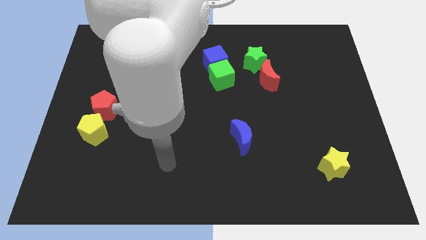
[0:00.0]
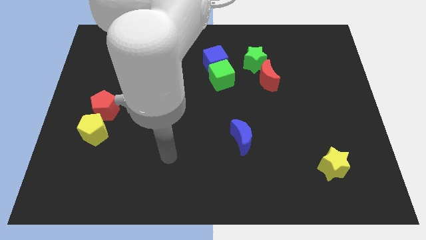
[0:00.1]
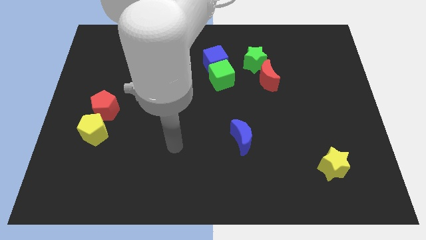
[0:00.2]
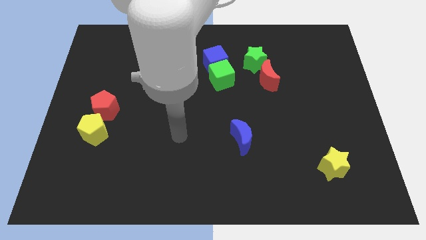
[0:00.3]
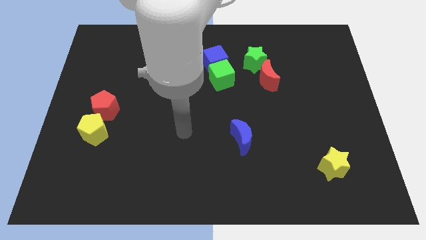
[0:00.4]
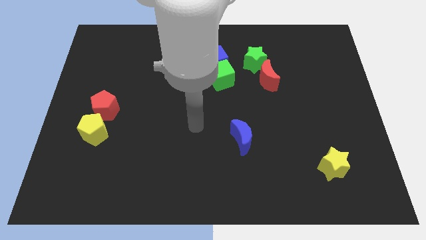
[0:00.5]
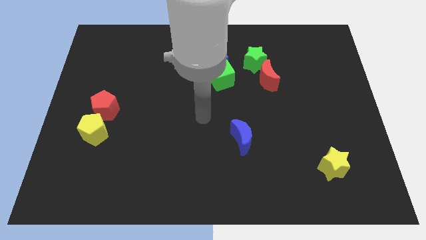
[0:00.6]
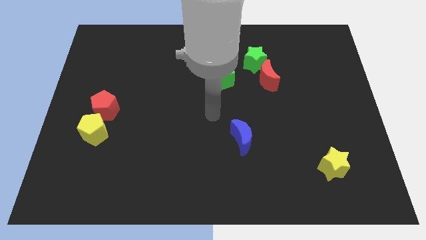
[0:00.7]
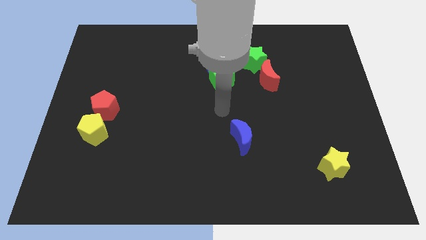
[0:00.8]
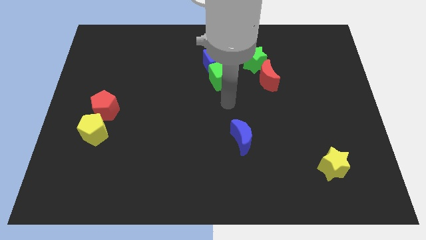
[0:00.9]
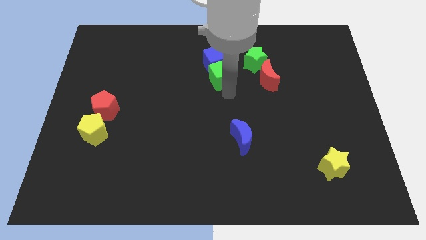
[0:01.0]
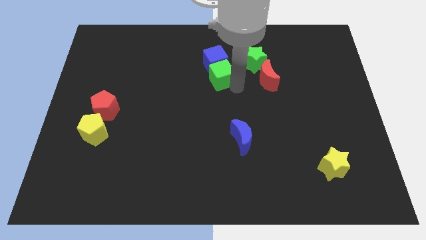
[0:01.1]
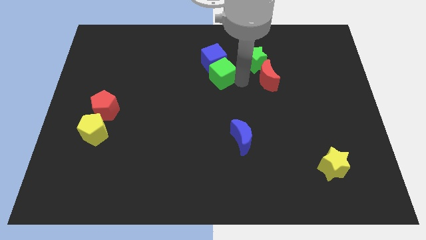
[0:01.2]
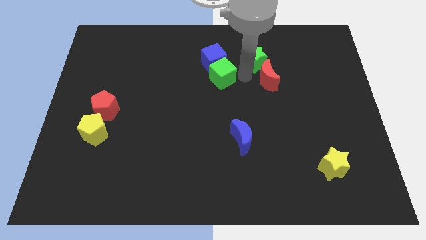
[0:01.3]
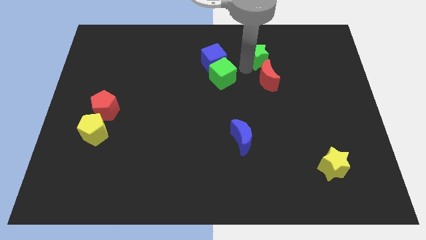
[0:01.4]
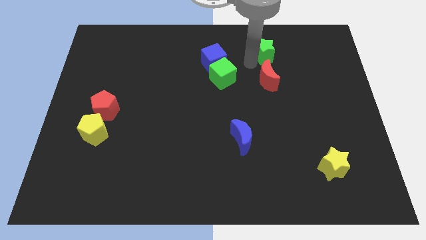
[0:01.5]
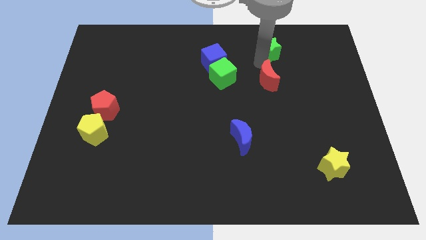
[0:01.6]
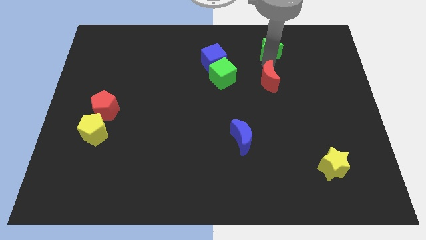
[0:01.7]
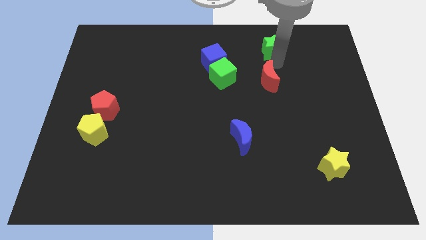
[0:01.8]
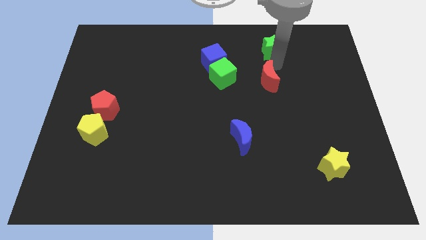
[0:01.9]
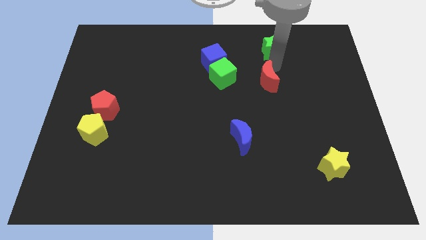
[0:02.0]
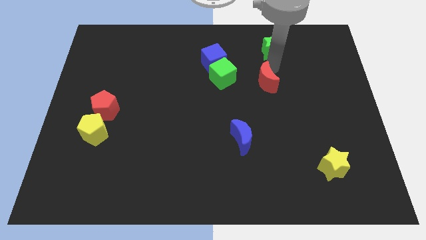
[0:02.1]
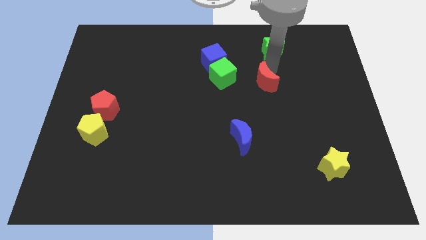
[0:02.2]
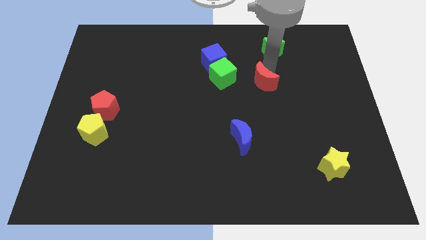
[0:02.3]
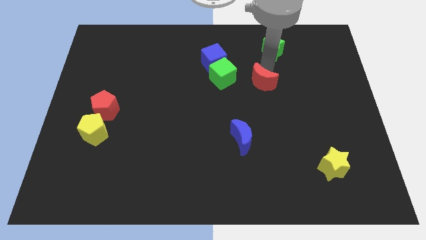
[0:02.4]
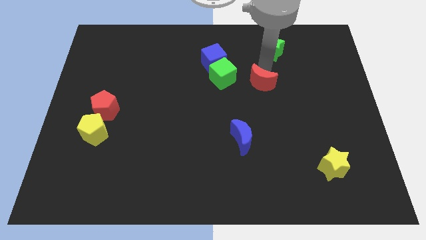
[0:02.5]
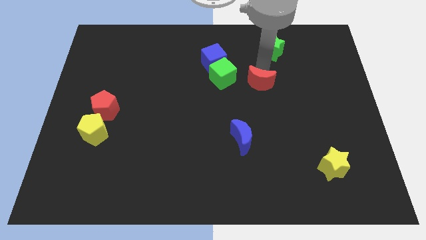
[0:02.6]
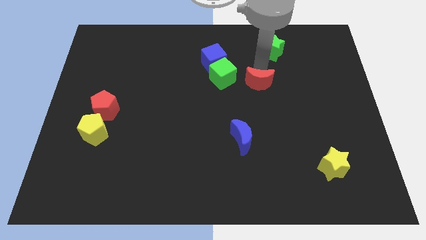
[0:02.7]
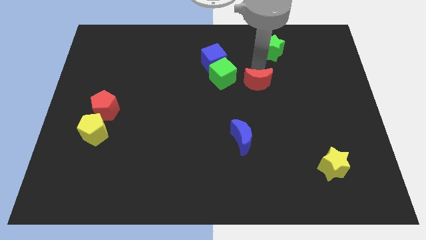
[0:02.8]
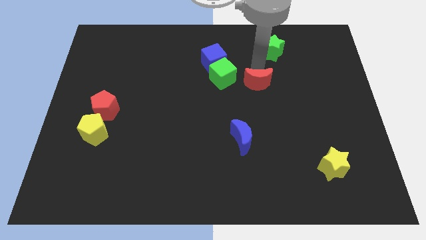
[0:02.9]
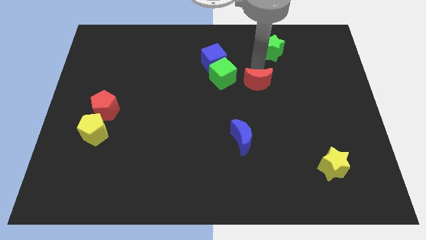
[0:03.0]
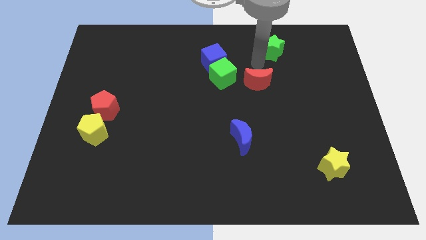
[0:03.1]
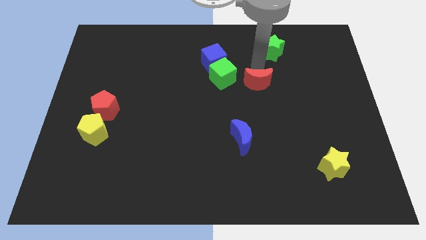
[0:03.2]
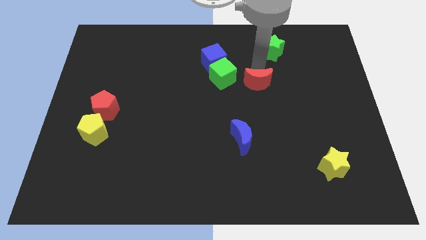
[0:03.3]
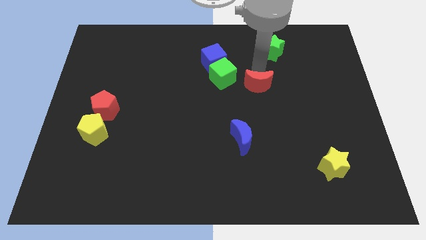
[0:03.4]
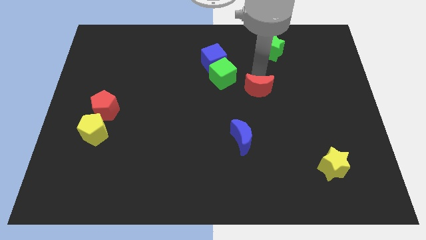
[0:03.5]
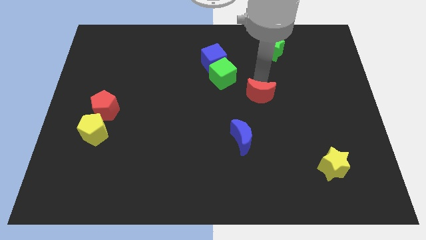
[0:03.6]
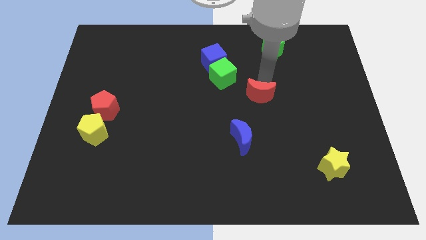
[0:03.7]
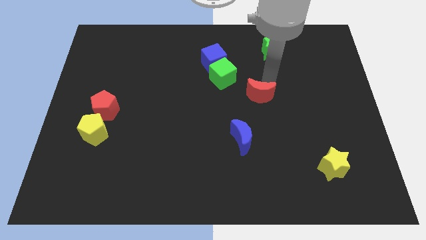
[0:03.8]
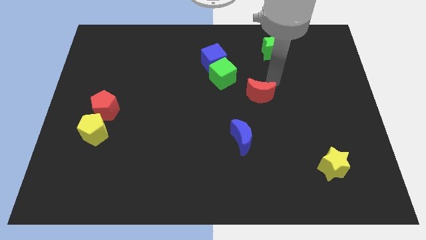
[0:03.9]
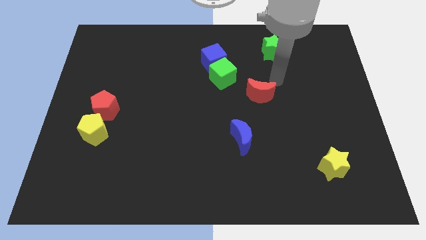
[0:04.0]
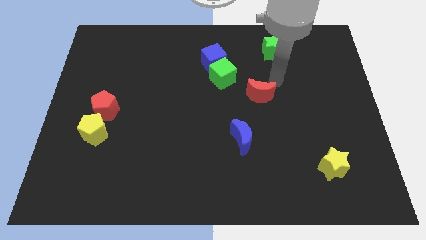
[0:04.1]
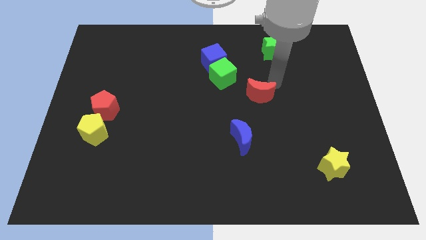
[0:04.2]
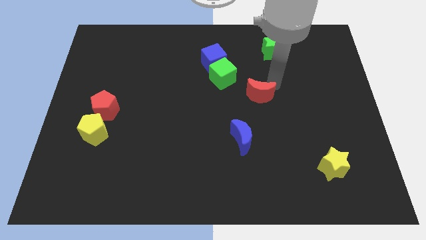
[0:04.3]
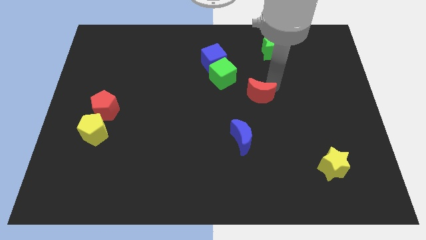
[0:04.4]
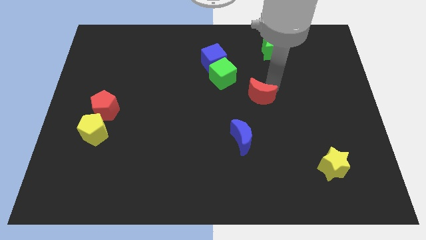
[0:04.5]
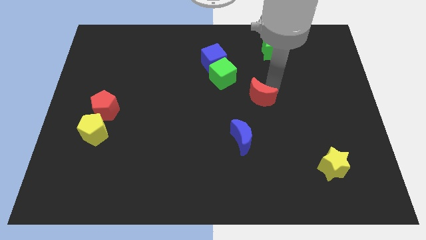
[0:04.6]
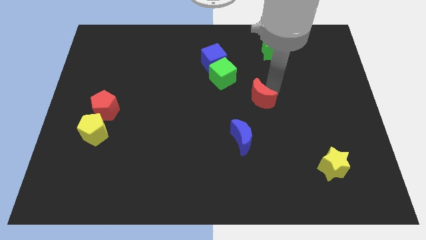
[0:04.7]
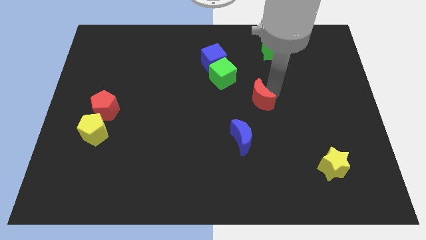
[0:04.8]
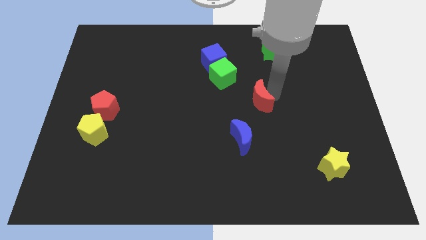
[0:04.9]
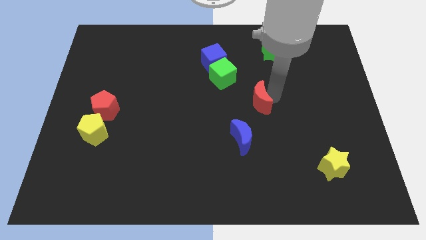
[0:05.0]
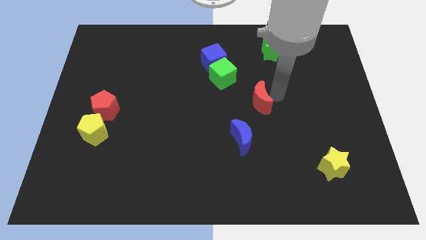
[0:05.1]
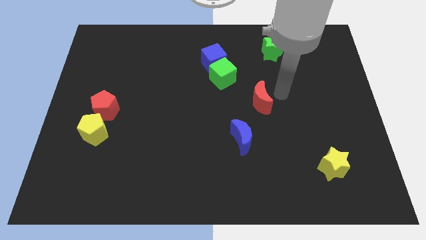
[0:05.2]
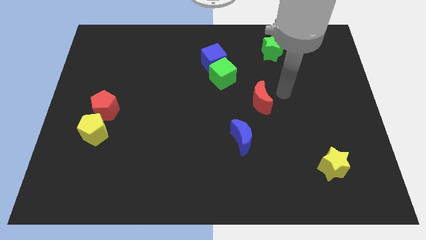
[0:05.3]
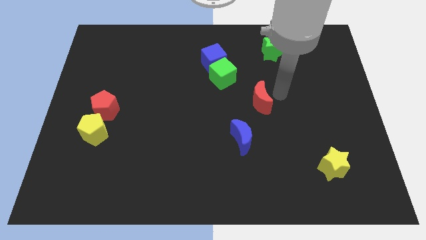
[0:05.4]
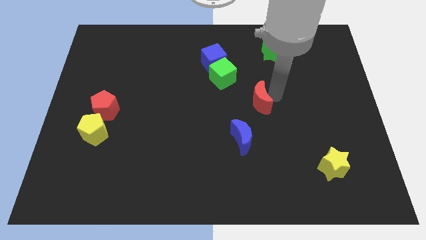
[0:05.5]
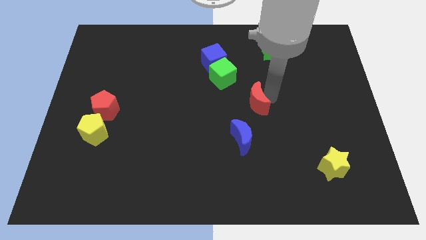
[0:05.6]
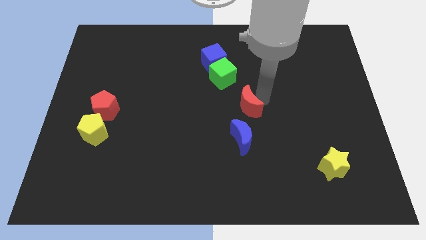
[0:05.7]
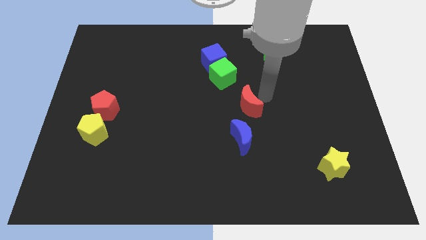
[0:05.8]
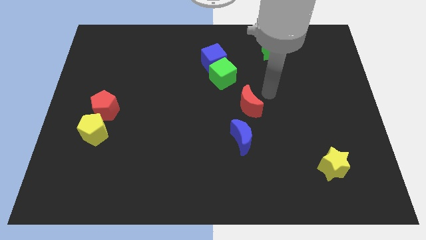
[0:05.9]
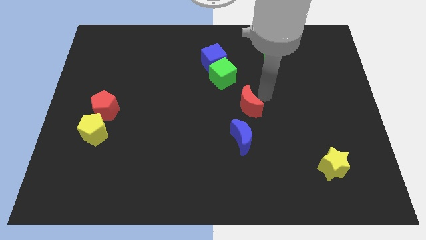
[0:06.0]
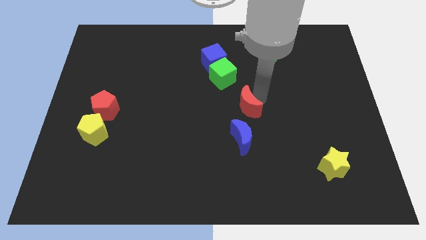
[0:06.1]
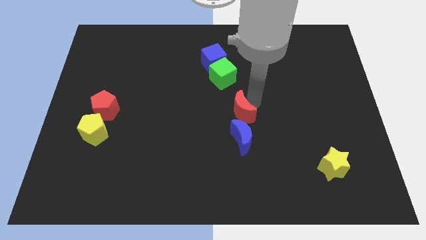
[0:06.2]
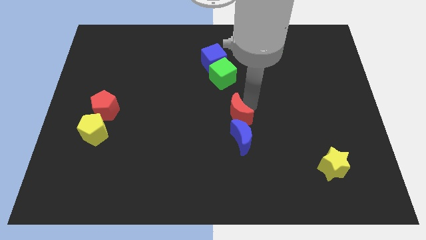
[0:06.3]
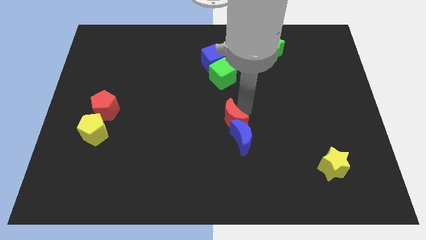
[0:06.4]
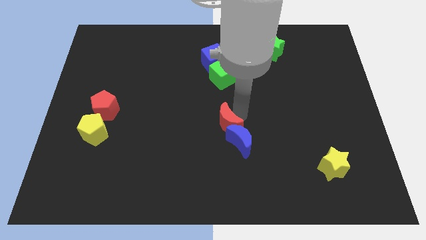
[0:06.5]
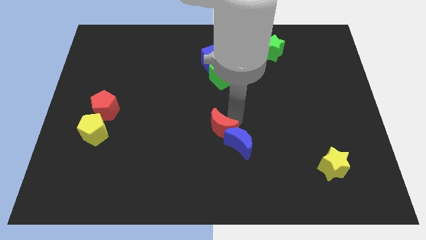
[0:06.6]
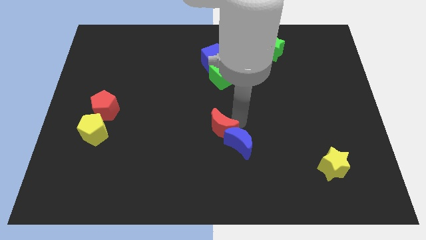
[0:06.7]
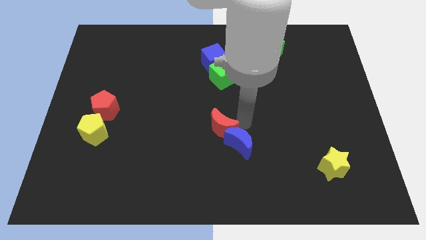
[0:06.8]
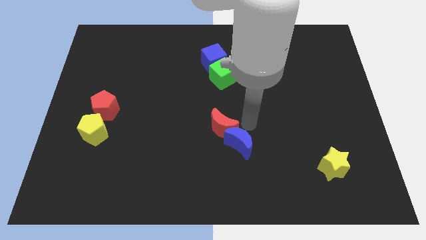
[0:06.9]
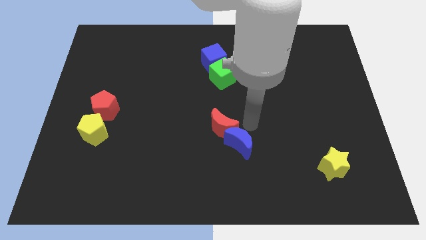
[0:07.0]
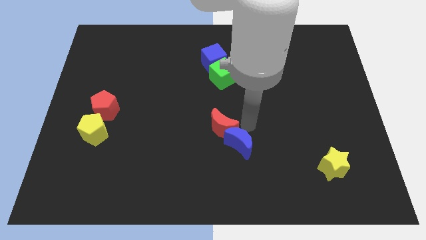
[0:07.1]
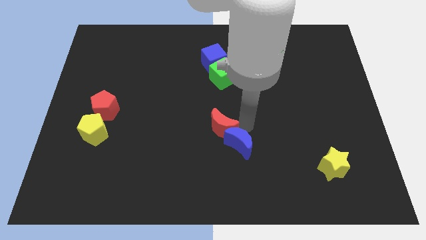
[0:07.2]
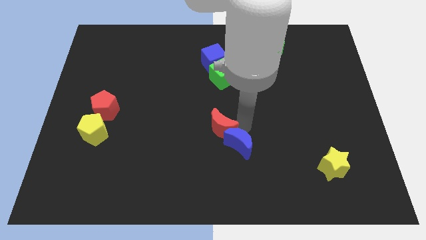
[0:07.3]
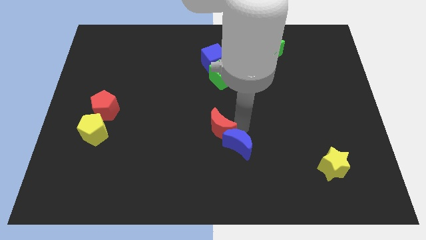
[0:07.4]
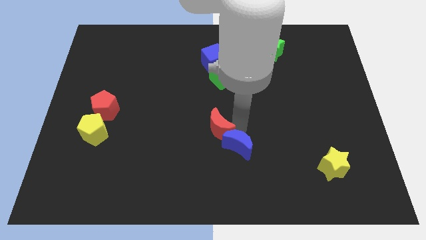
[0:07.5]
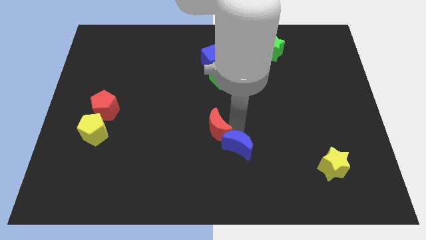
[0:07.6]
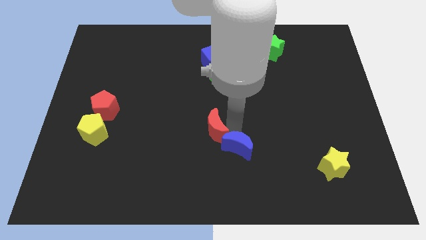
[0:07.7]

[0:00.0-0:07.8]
move the red moon downwards and then to the left

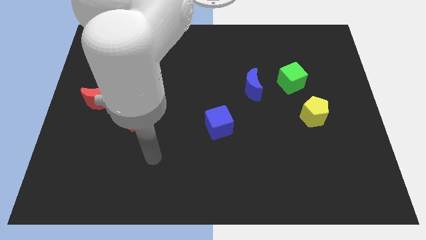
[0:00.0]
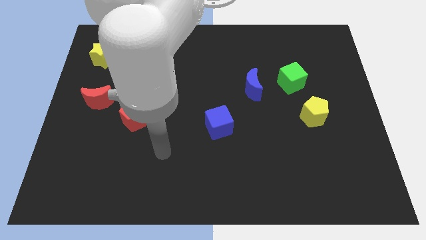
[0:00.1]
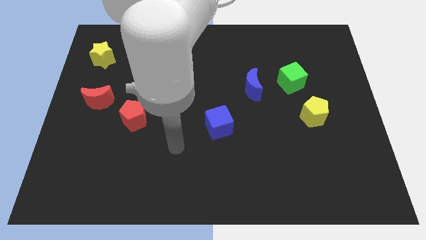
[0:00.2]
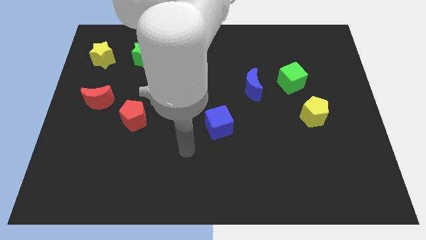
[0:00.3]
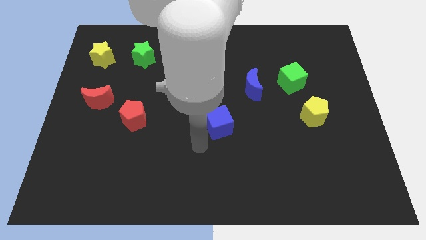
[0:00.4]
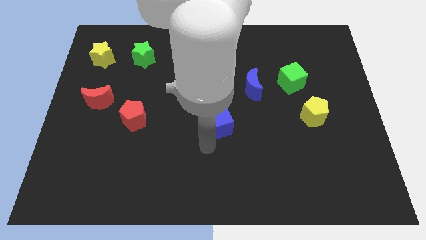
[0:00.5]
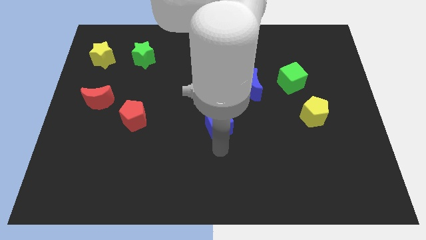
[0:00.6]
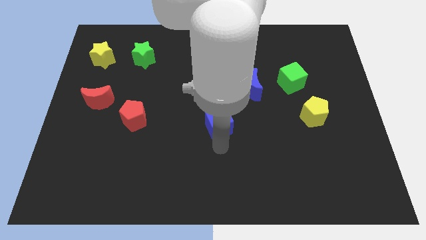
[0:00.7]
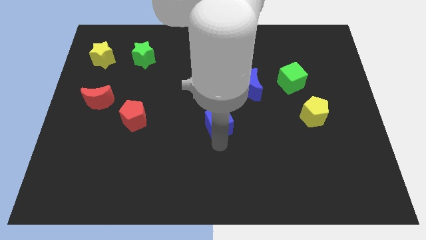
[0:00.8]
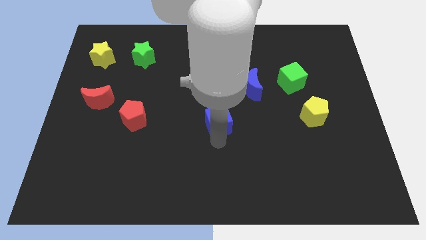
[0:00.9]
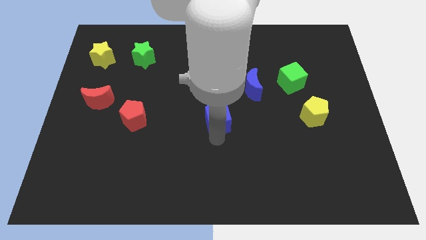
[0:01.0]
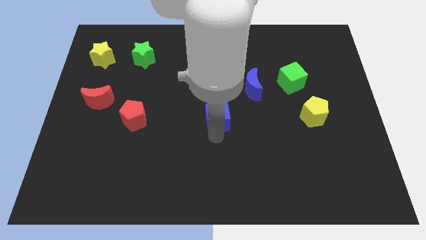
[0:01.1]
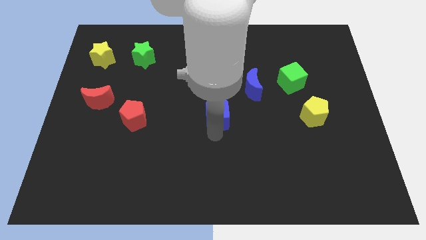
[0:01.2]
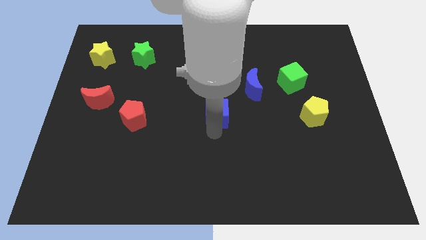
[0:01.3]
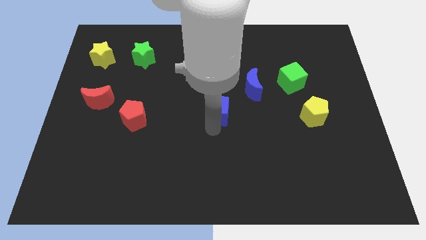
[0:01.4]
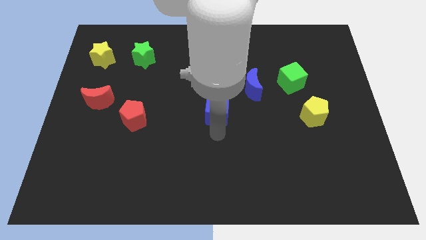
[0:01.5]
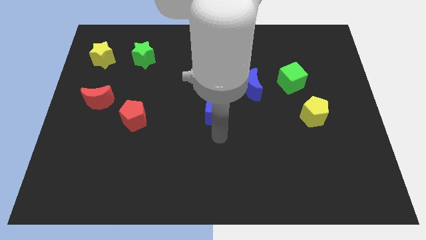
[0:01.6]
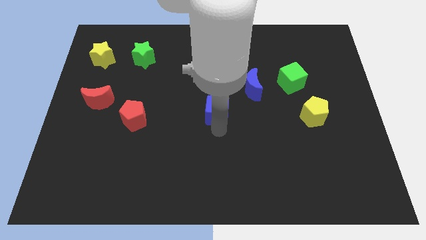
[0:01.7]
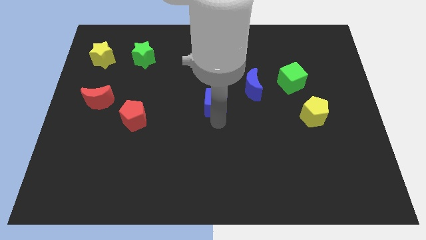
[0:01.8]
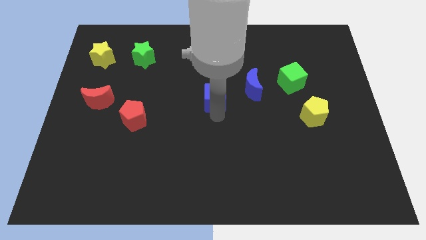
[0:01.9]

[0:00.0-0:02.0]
slide the blue cube up somewhat
